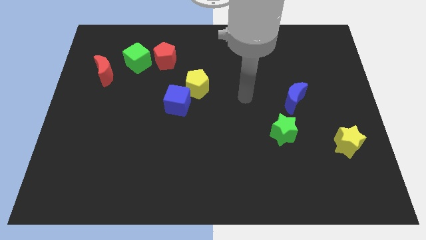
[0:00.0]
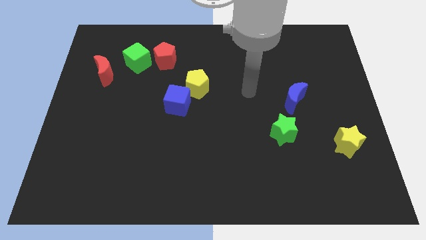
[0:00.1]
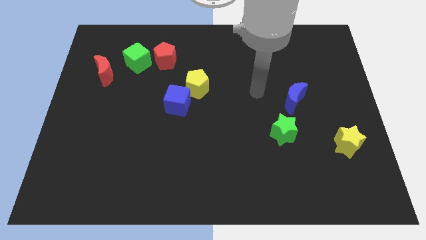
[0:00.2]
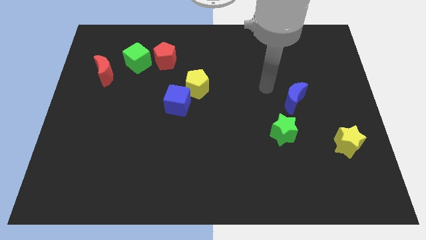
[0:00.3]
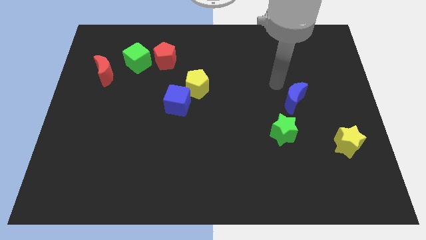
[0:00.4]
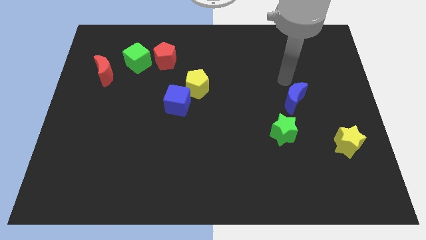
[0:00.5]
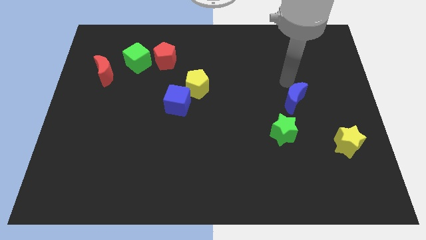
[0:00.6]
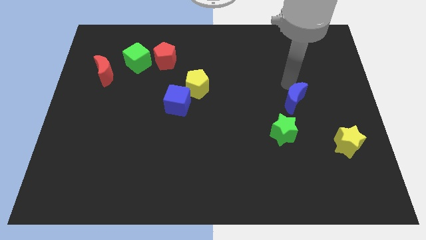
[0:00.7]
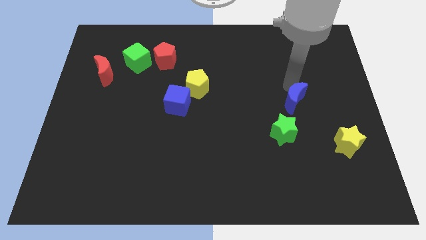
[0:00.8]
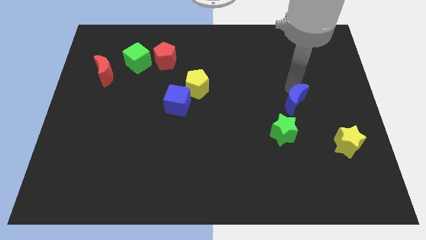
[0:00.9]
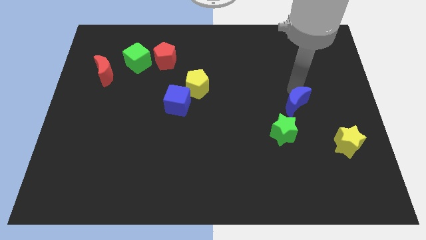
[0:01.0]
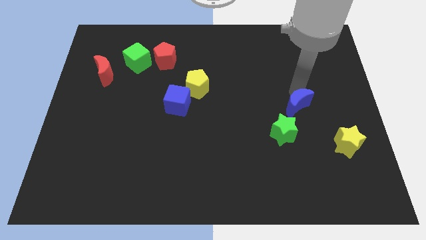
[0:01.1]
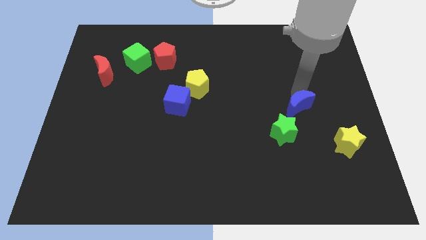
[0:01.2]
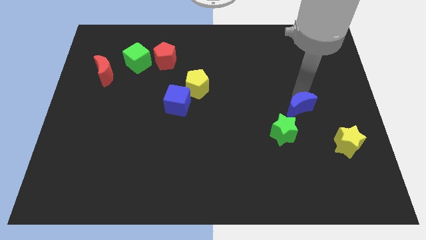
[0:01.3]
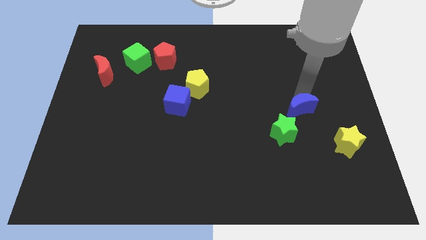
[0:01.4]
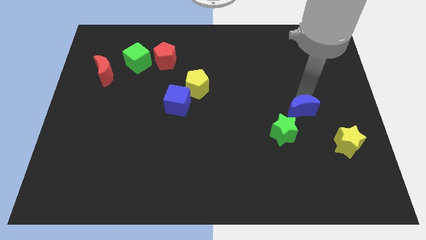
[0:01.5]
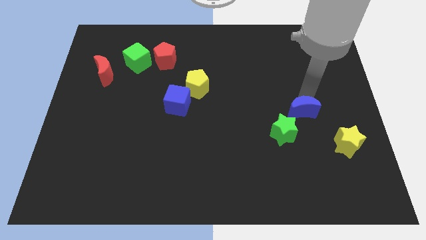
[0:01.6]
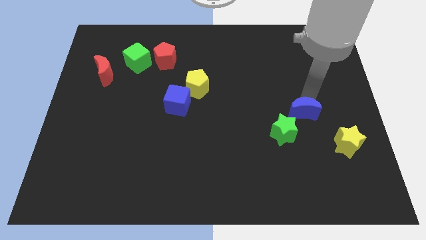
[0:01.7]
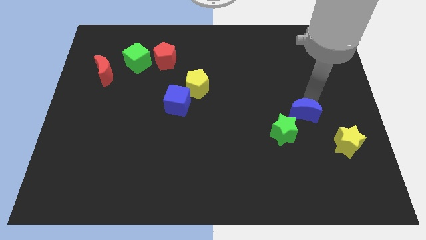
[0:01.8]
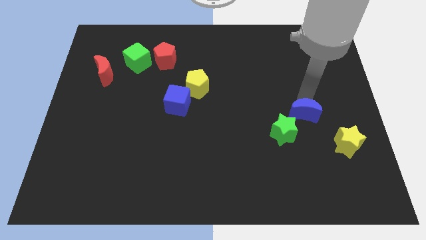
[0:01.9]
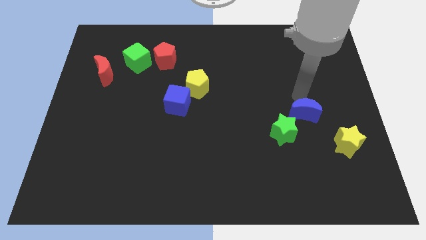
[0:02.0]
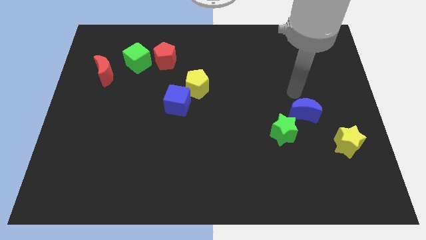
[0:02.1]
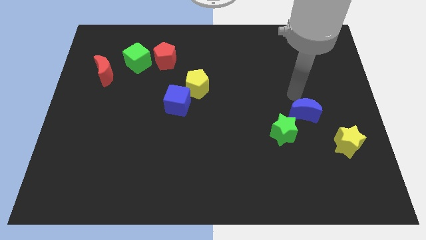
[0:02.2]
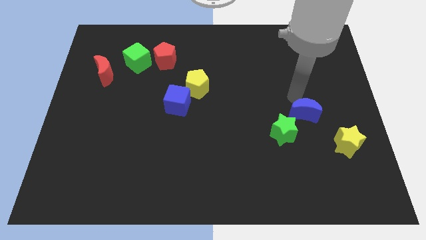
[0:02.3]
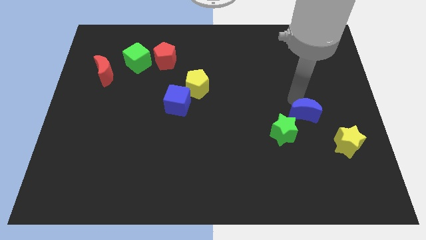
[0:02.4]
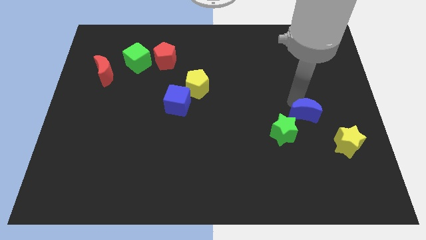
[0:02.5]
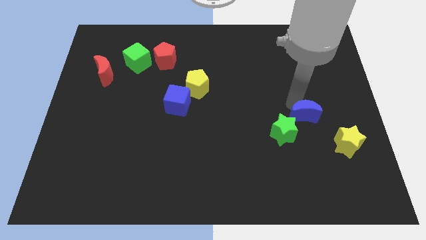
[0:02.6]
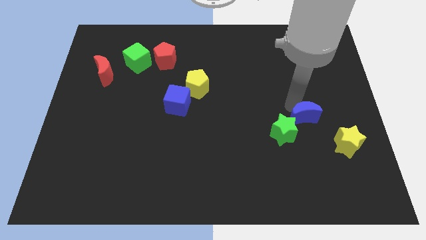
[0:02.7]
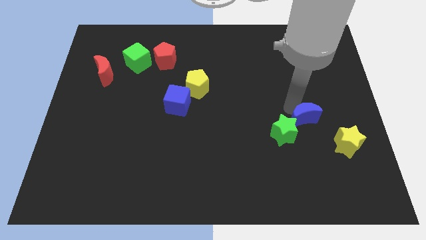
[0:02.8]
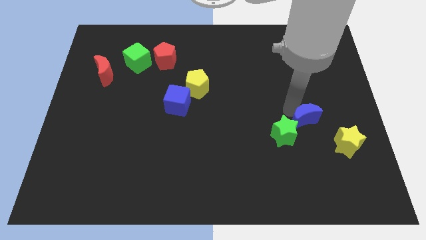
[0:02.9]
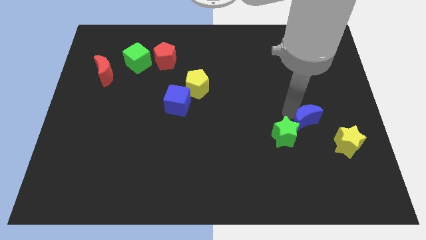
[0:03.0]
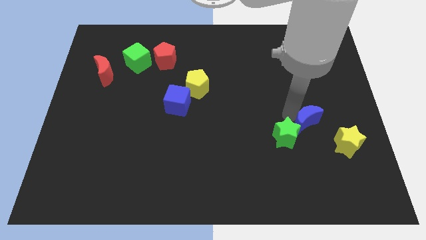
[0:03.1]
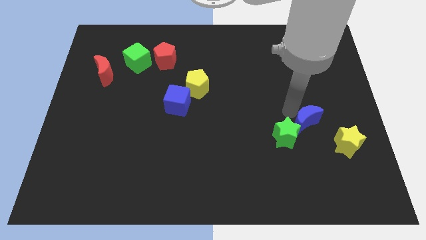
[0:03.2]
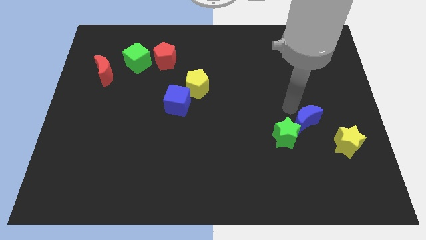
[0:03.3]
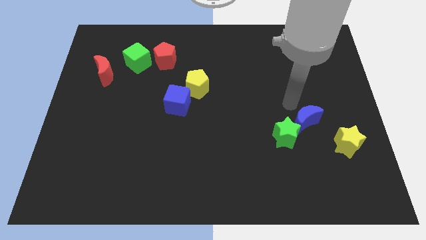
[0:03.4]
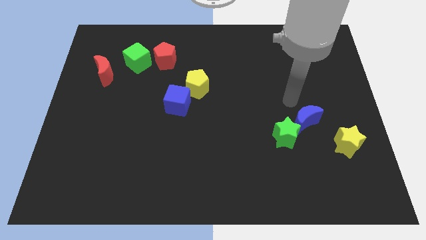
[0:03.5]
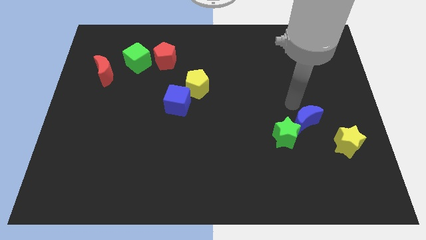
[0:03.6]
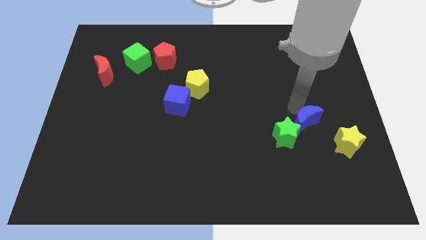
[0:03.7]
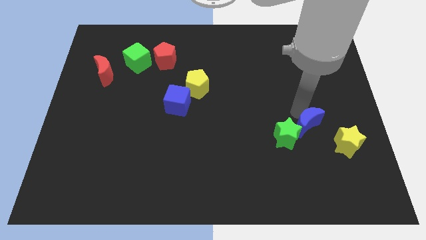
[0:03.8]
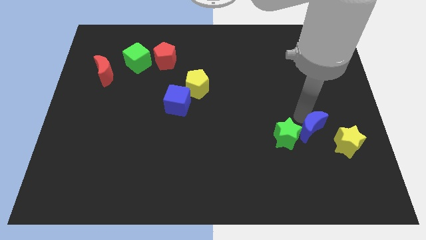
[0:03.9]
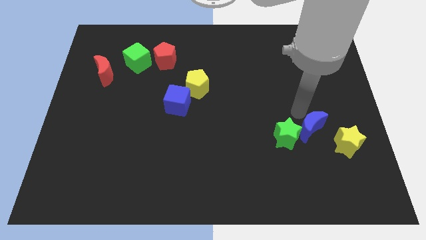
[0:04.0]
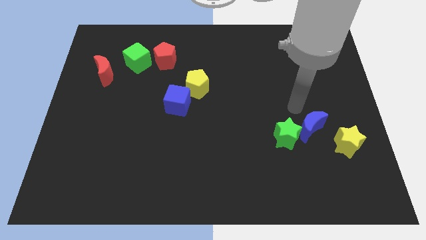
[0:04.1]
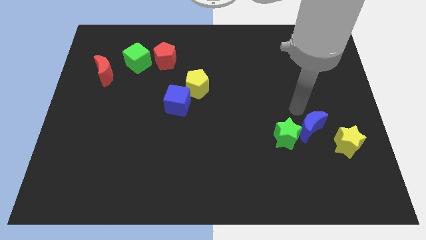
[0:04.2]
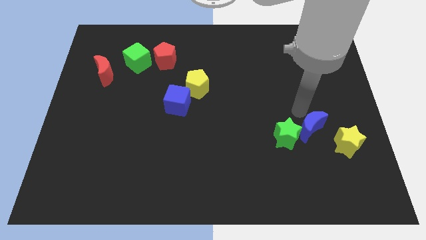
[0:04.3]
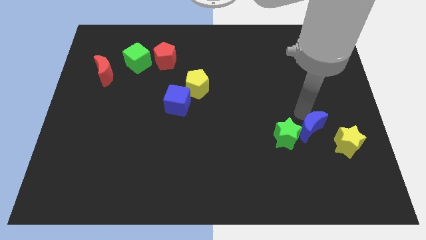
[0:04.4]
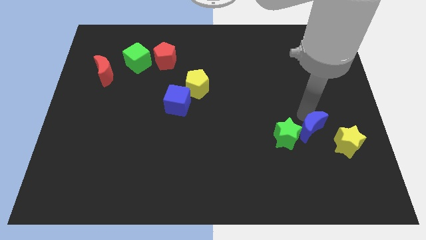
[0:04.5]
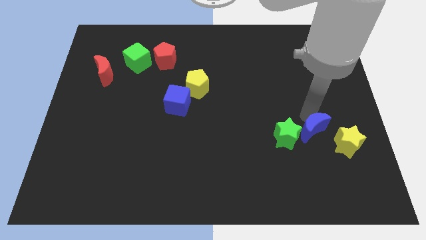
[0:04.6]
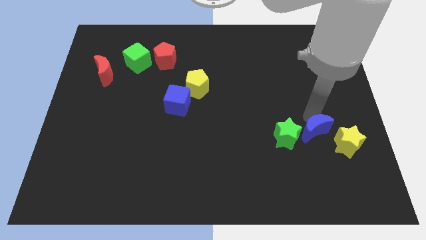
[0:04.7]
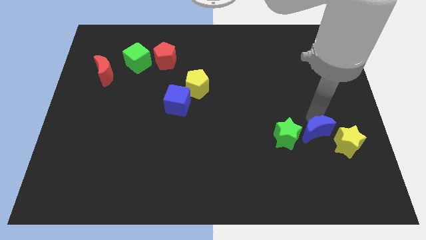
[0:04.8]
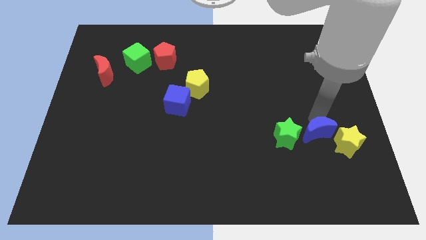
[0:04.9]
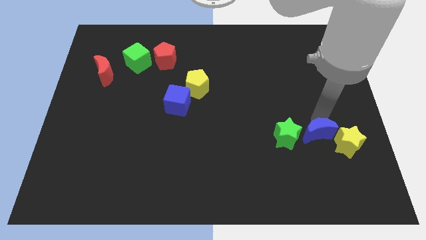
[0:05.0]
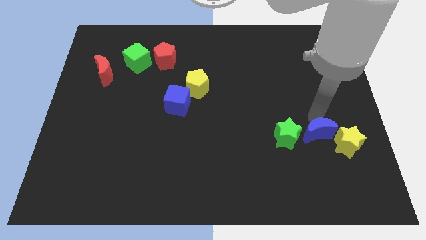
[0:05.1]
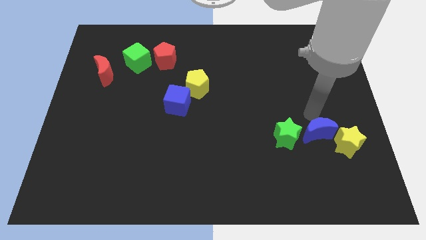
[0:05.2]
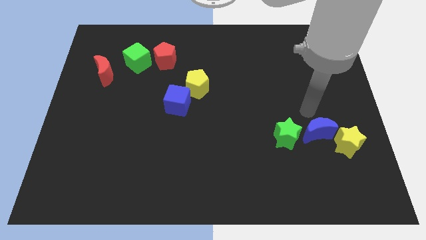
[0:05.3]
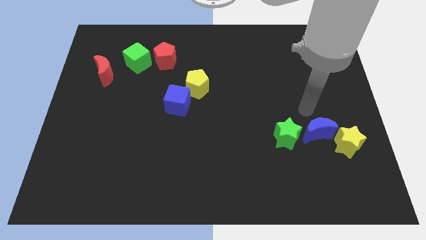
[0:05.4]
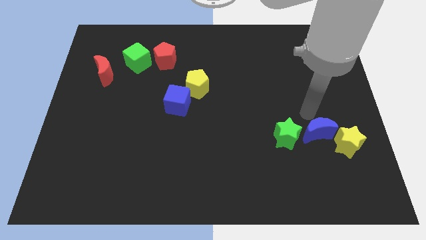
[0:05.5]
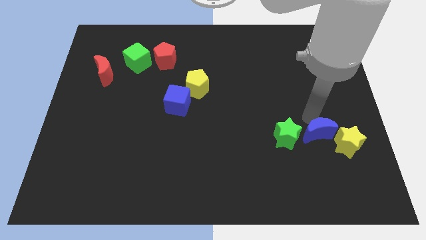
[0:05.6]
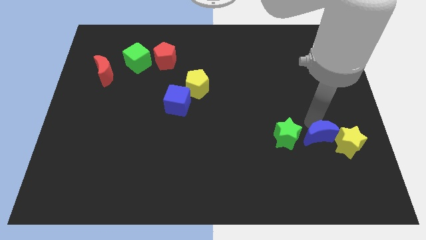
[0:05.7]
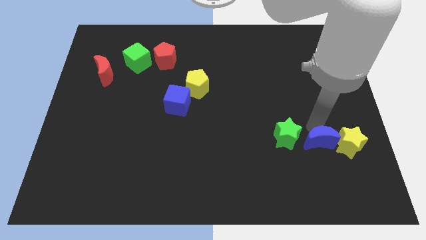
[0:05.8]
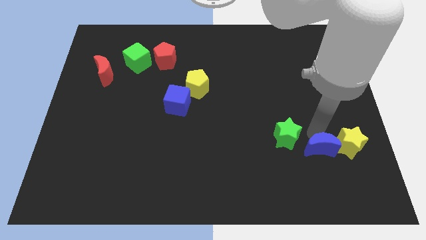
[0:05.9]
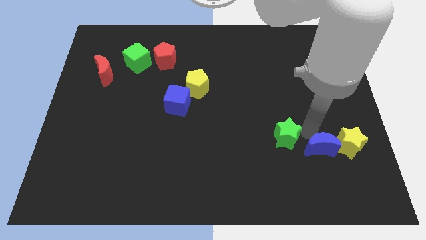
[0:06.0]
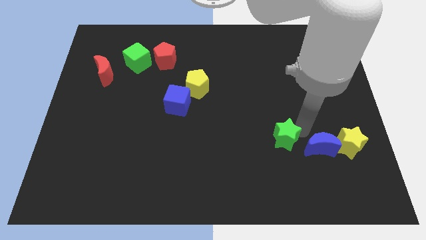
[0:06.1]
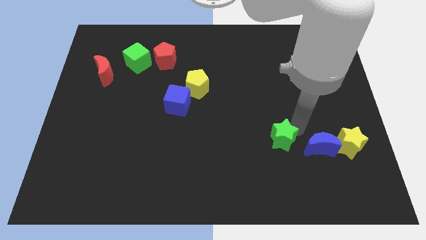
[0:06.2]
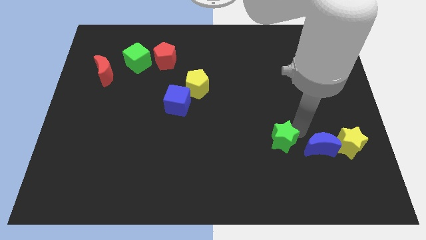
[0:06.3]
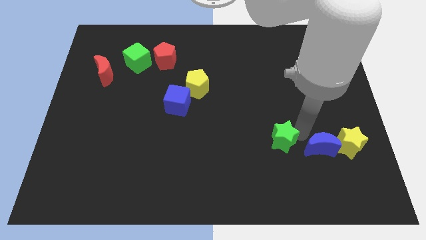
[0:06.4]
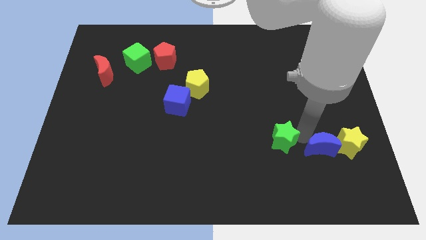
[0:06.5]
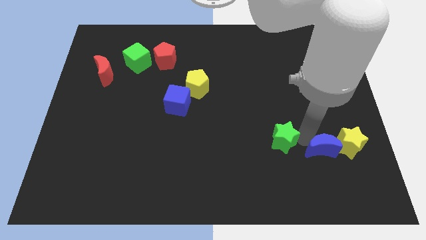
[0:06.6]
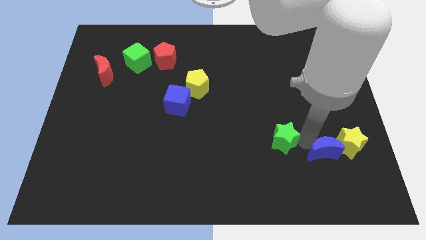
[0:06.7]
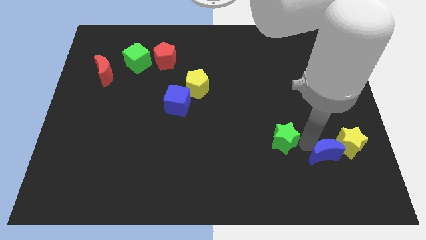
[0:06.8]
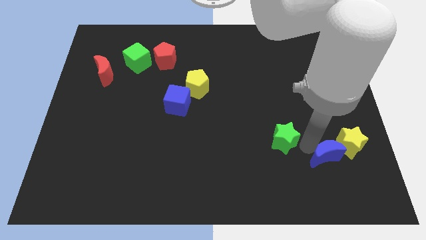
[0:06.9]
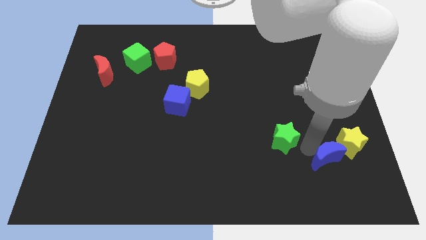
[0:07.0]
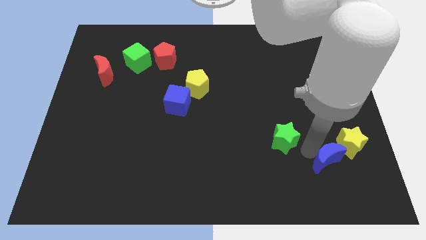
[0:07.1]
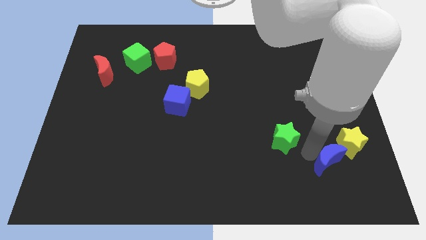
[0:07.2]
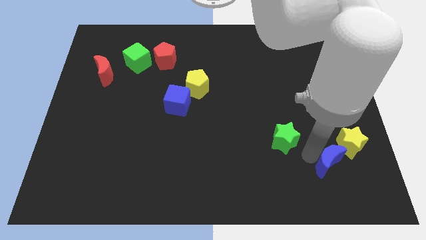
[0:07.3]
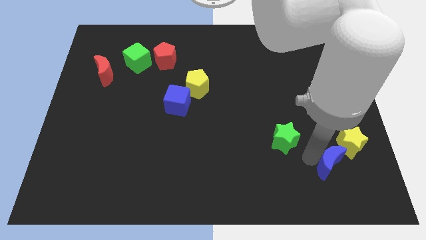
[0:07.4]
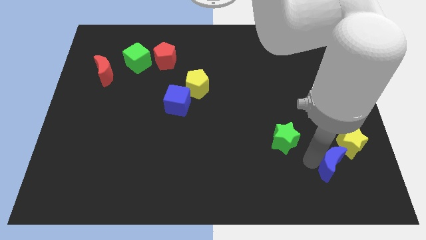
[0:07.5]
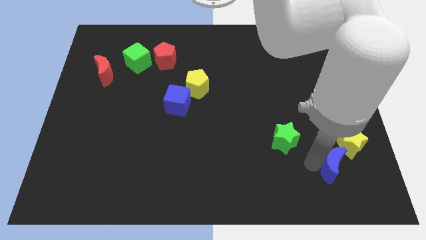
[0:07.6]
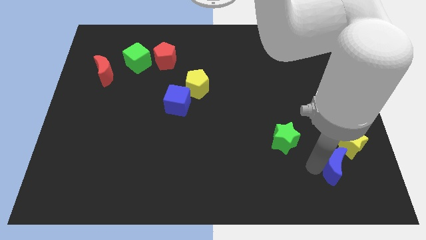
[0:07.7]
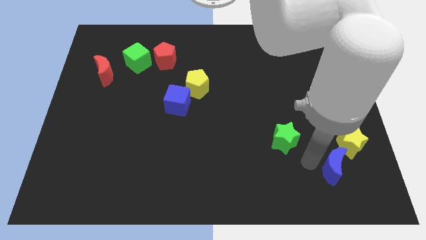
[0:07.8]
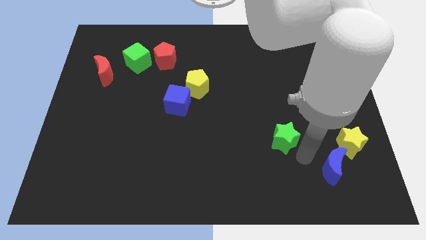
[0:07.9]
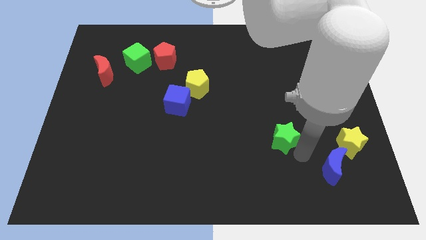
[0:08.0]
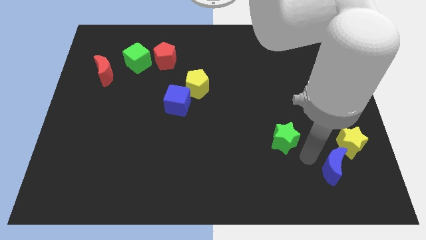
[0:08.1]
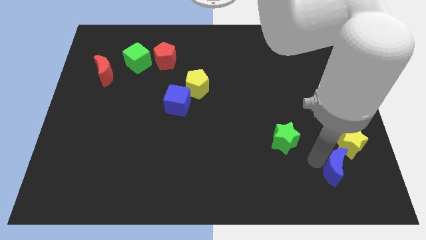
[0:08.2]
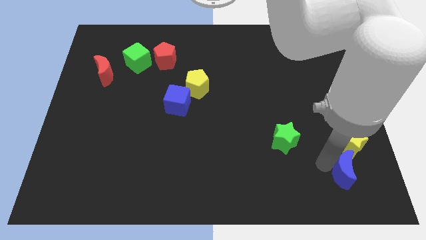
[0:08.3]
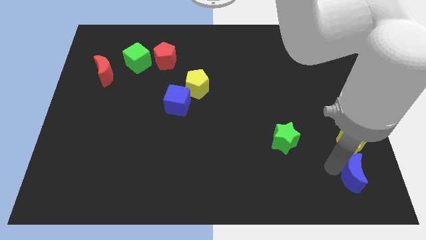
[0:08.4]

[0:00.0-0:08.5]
put the blue moon to the bottom right
